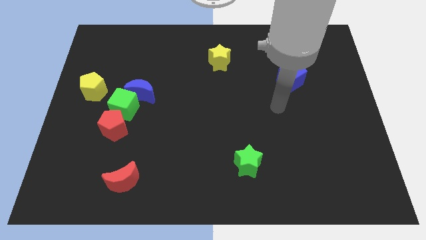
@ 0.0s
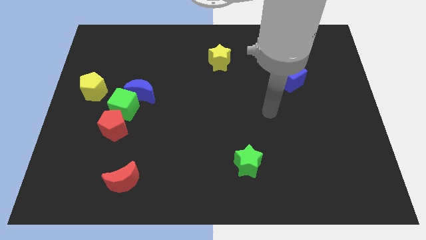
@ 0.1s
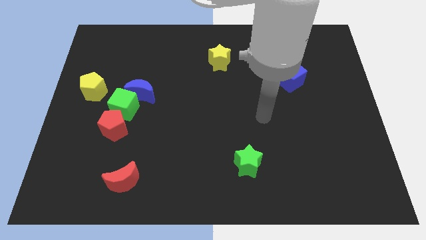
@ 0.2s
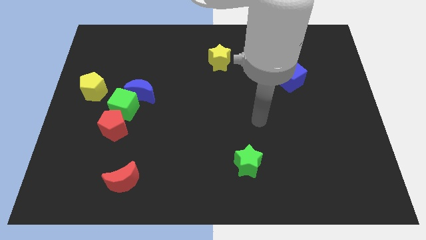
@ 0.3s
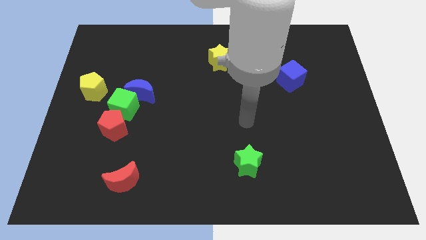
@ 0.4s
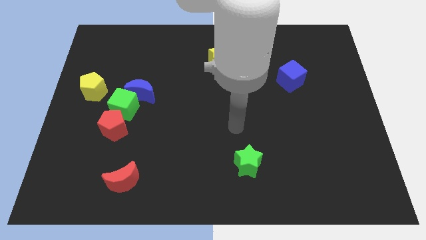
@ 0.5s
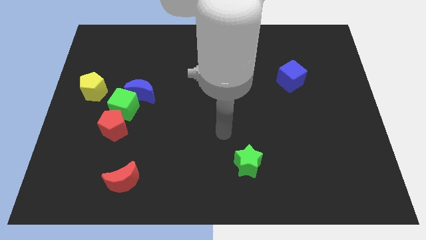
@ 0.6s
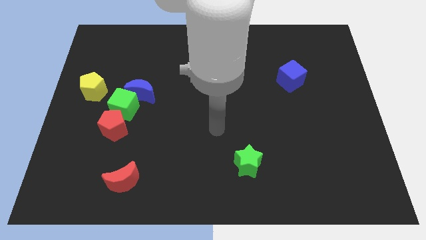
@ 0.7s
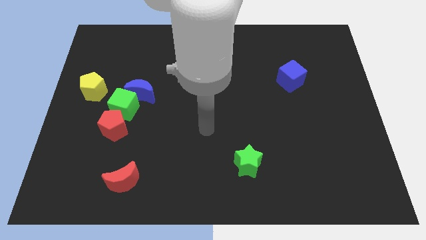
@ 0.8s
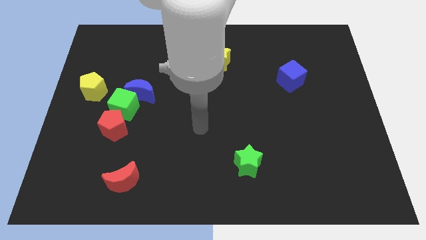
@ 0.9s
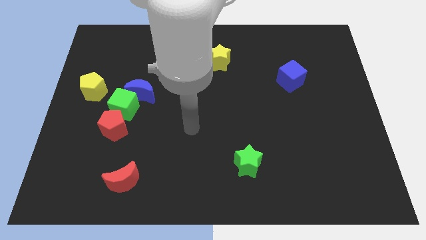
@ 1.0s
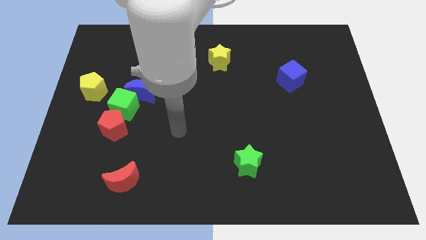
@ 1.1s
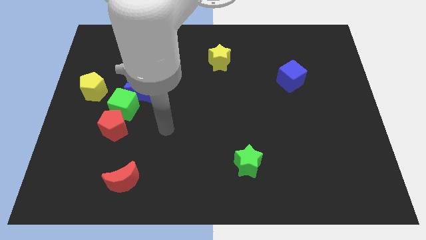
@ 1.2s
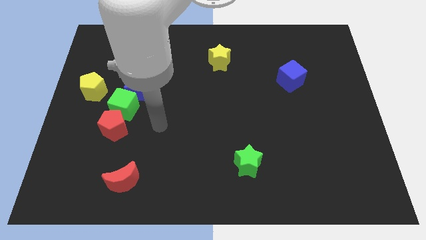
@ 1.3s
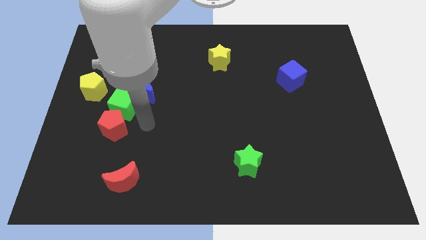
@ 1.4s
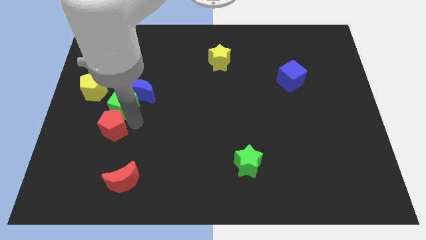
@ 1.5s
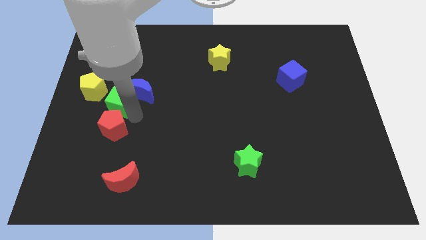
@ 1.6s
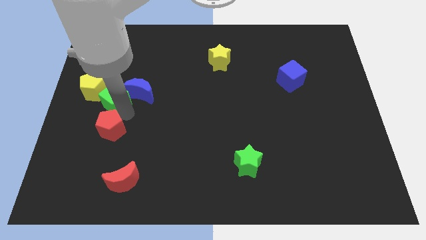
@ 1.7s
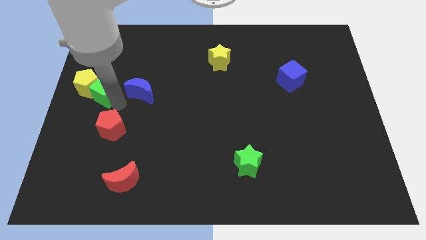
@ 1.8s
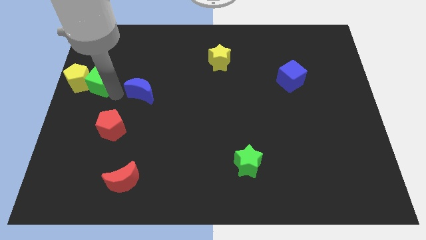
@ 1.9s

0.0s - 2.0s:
separate the blue moon from the green cube

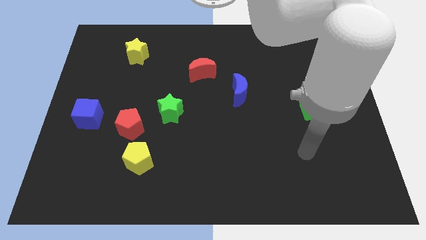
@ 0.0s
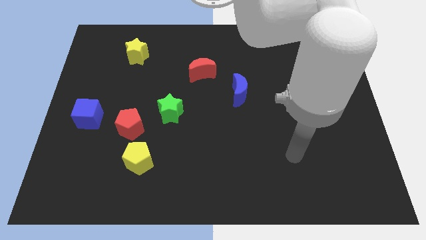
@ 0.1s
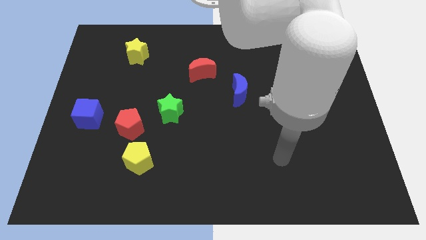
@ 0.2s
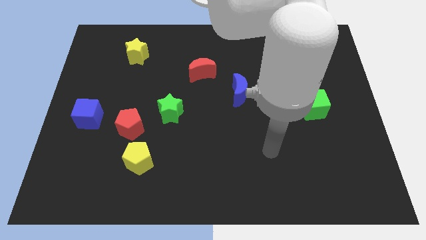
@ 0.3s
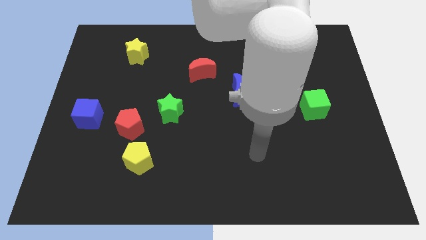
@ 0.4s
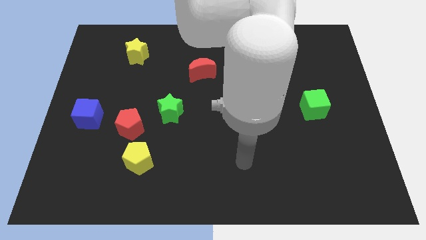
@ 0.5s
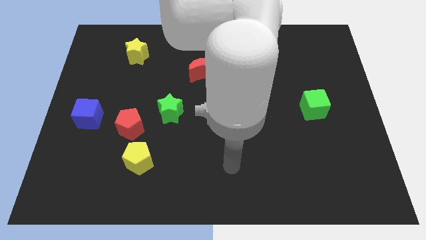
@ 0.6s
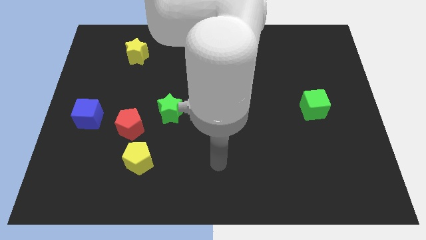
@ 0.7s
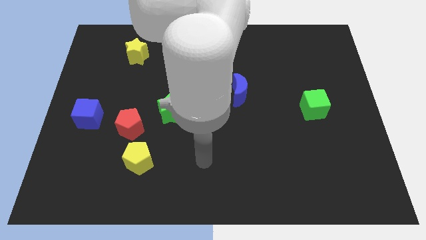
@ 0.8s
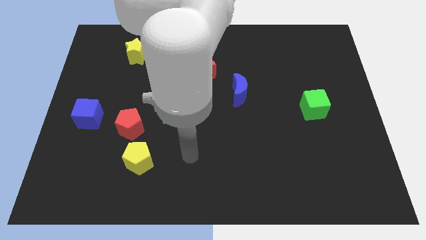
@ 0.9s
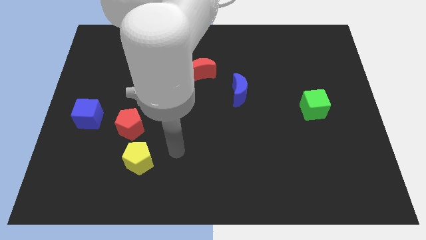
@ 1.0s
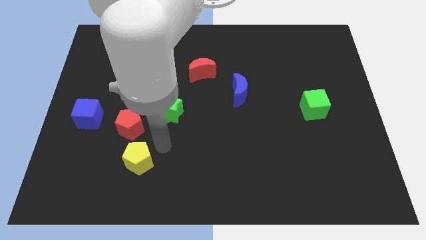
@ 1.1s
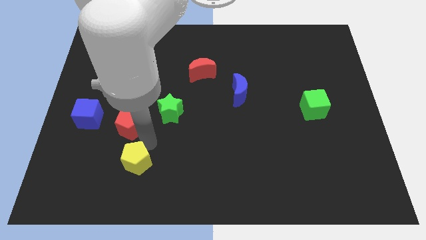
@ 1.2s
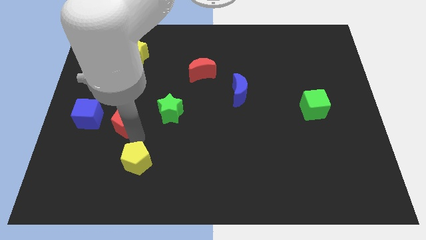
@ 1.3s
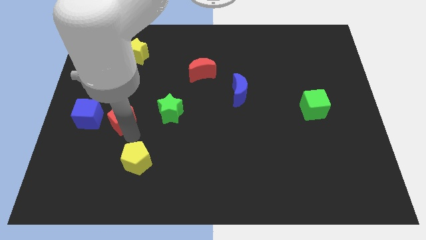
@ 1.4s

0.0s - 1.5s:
pull the yellow pentagon apart from the red pentagon

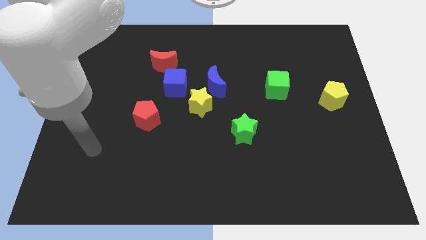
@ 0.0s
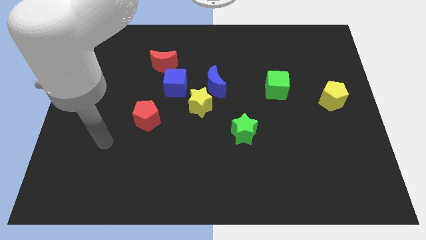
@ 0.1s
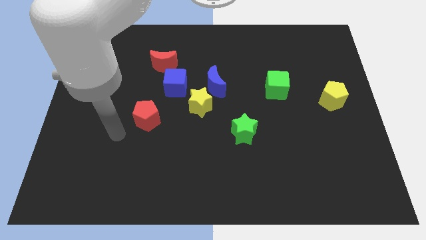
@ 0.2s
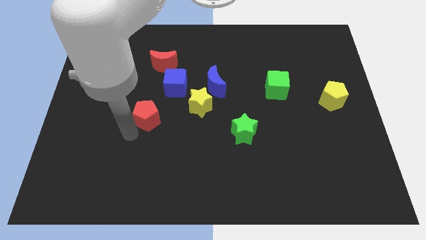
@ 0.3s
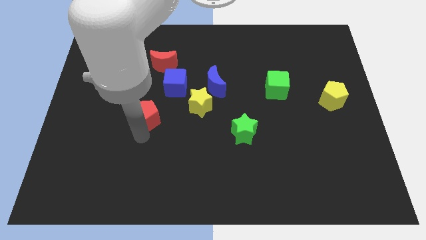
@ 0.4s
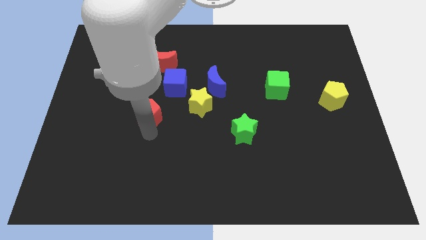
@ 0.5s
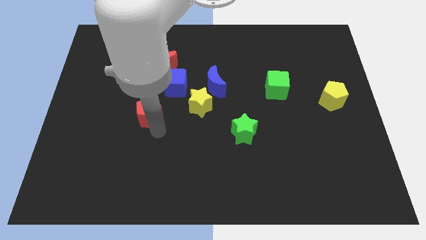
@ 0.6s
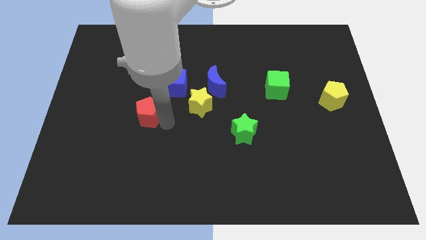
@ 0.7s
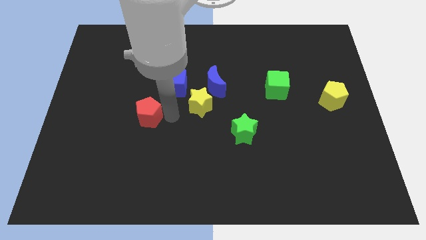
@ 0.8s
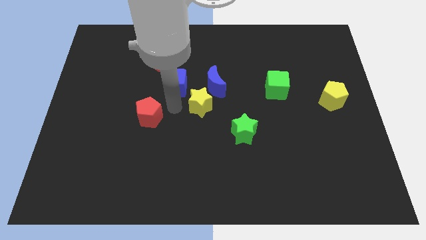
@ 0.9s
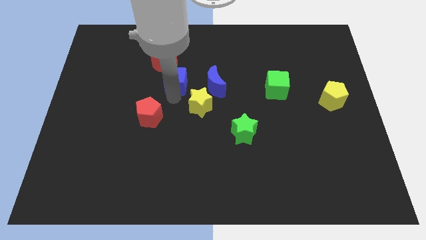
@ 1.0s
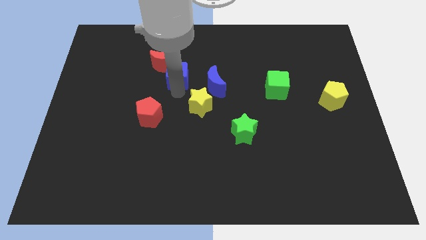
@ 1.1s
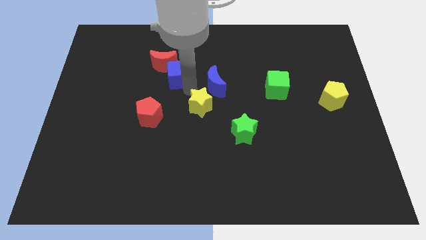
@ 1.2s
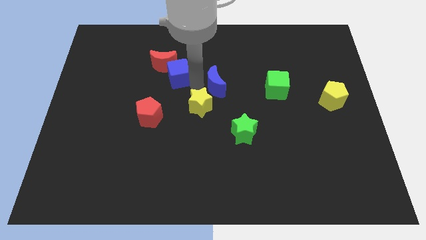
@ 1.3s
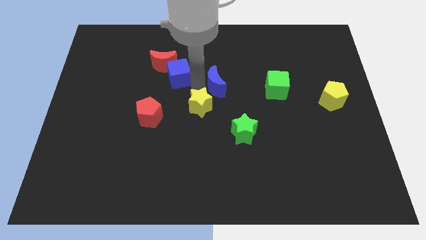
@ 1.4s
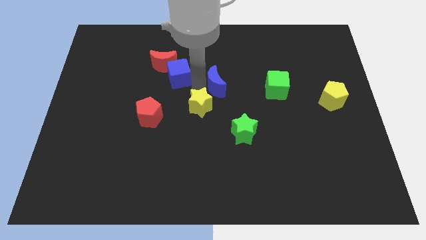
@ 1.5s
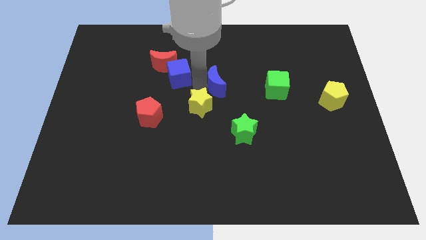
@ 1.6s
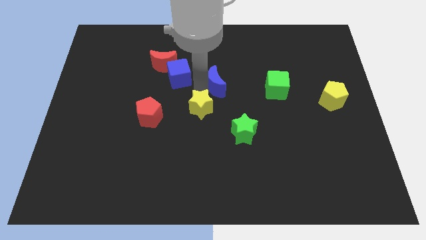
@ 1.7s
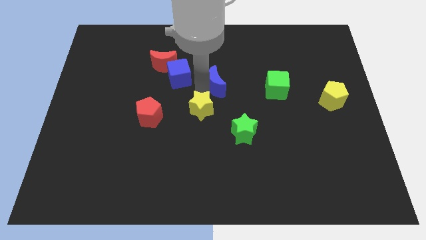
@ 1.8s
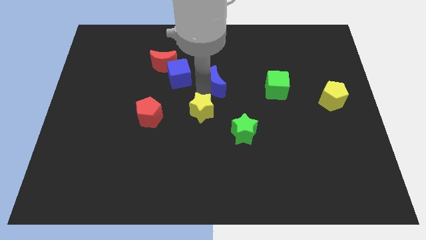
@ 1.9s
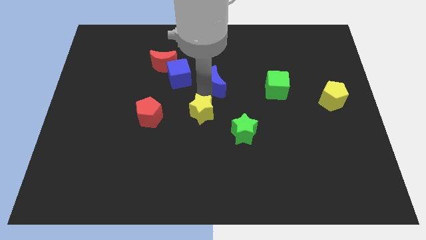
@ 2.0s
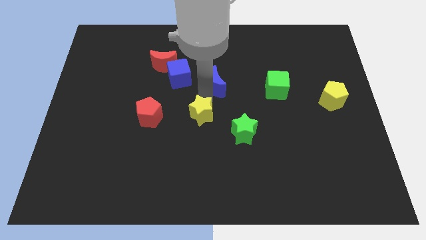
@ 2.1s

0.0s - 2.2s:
pull the yellow star apart from the blue moon and blue cube

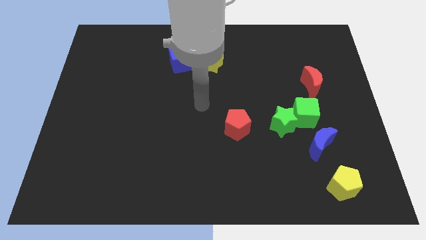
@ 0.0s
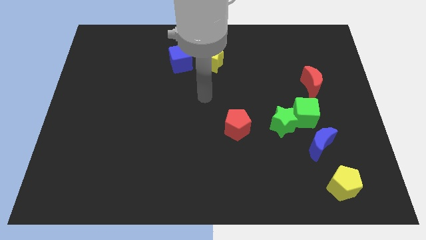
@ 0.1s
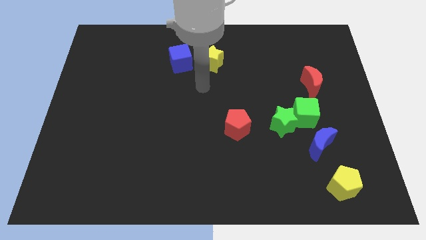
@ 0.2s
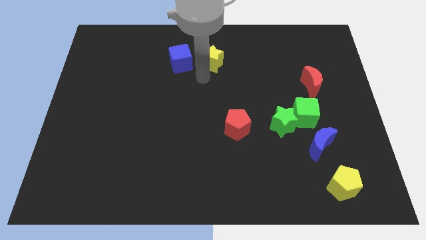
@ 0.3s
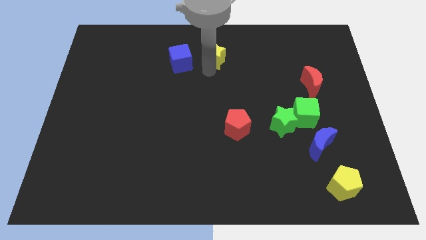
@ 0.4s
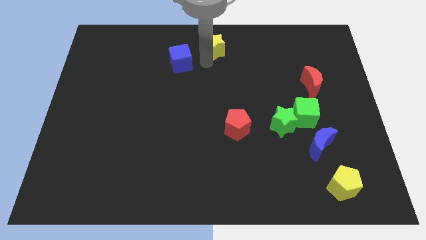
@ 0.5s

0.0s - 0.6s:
separate the blue cube from the yellow star

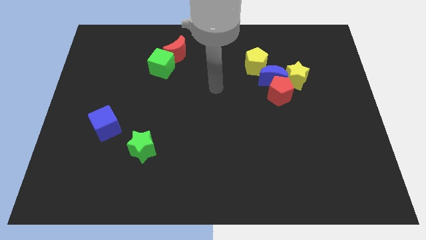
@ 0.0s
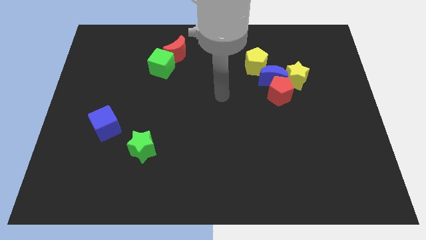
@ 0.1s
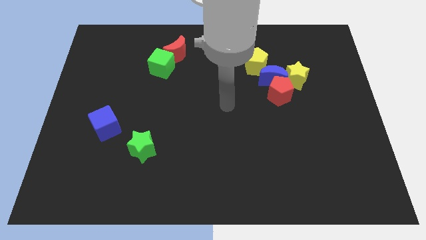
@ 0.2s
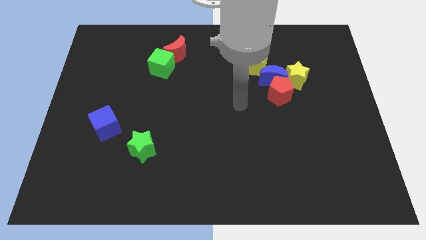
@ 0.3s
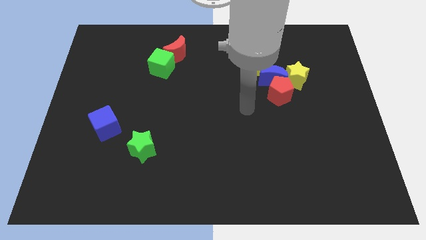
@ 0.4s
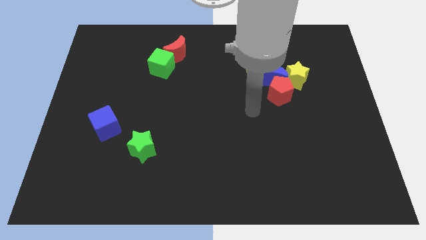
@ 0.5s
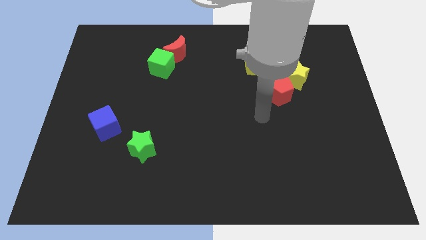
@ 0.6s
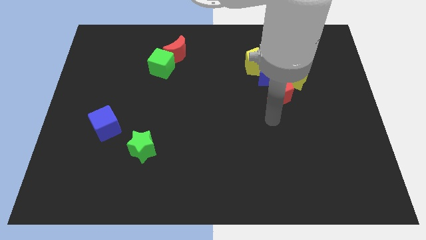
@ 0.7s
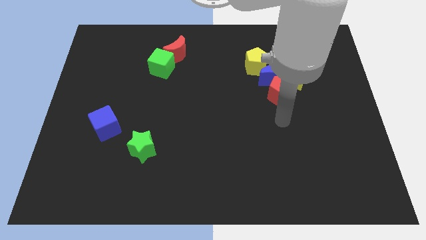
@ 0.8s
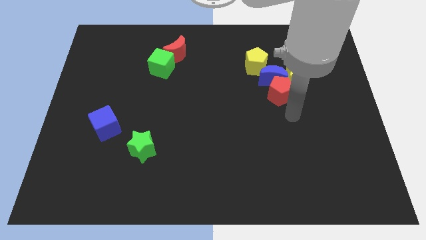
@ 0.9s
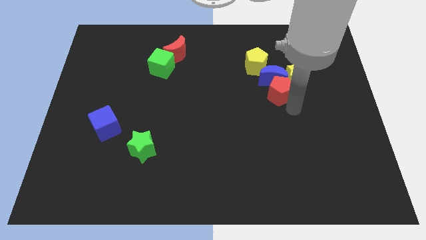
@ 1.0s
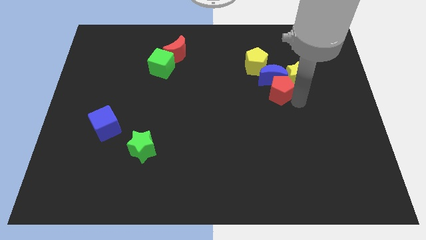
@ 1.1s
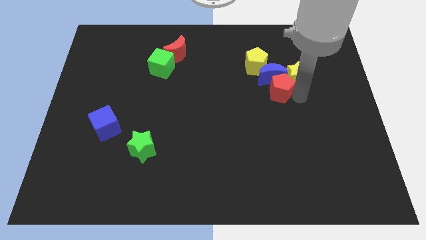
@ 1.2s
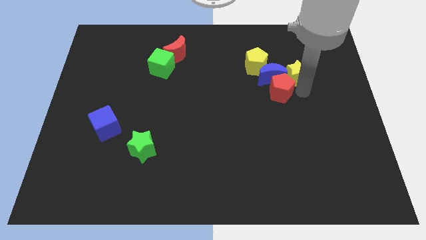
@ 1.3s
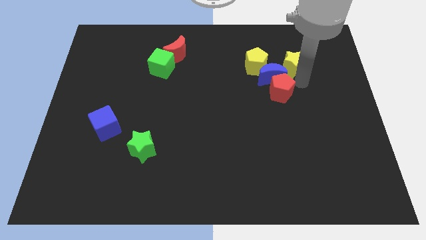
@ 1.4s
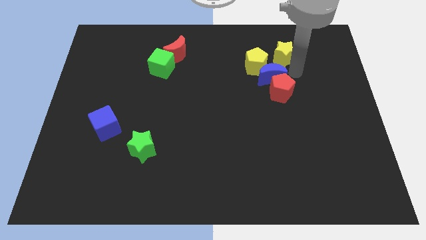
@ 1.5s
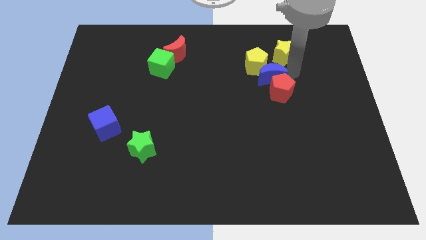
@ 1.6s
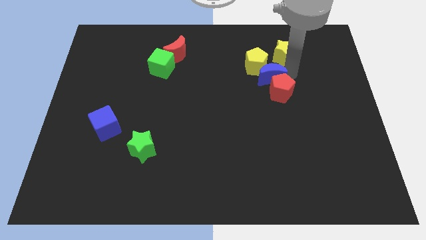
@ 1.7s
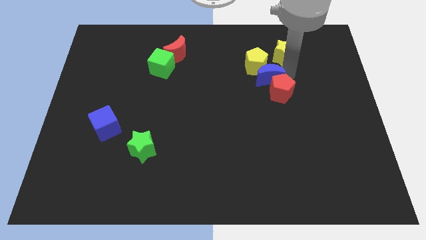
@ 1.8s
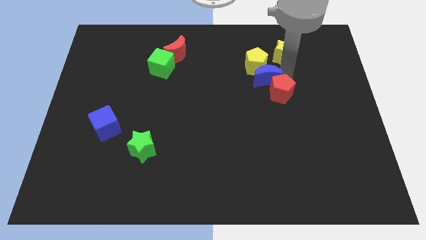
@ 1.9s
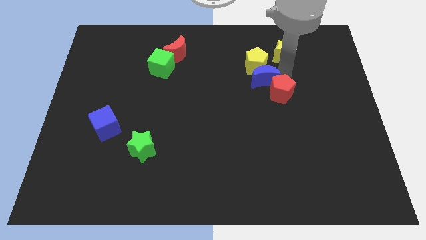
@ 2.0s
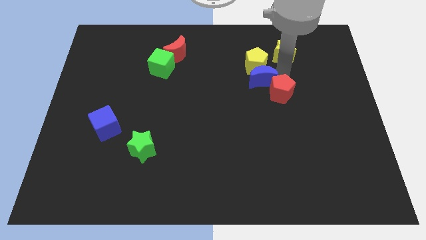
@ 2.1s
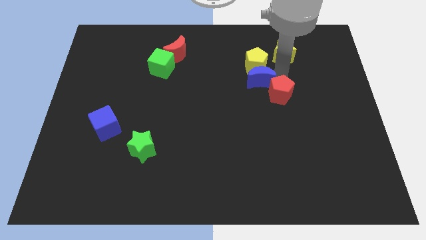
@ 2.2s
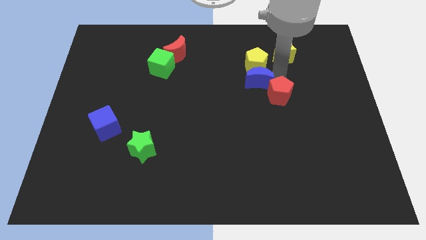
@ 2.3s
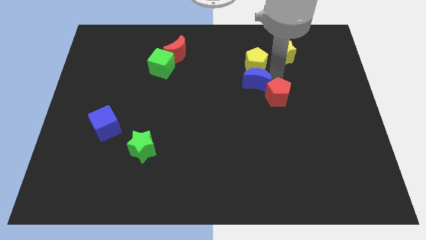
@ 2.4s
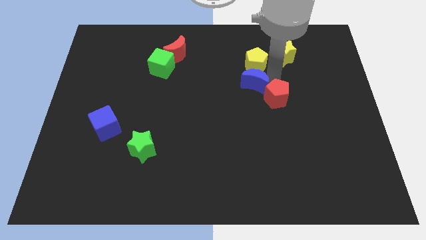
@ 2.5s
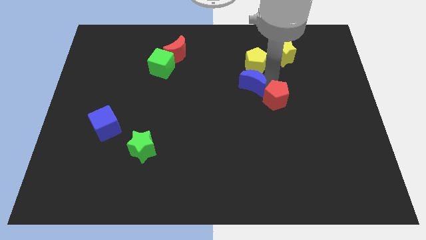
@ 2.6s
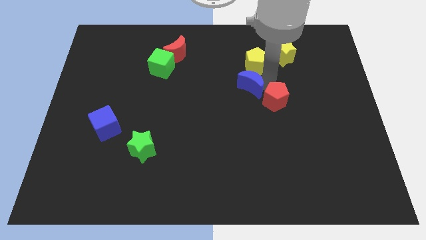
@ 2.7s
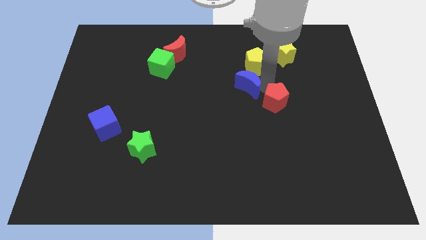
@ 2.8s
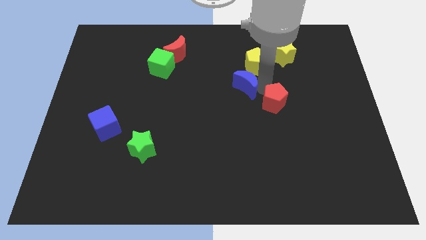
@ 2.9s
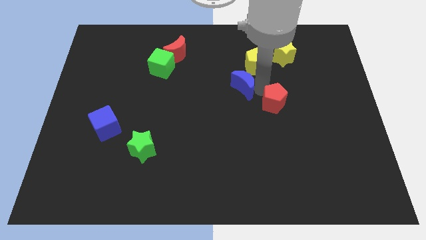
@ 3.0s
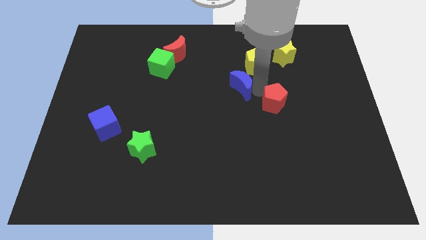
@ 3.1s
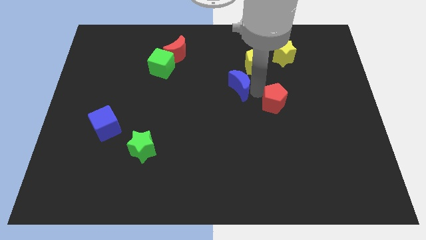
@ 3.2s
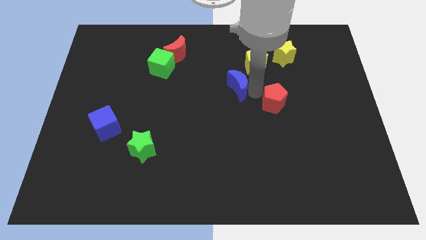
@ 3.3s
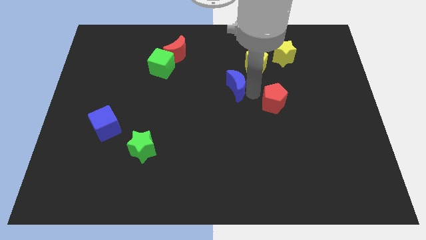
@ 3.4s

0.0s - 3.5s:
separate the blue moon from the group
